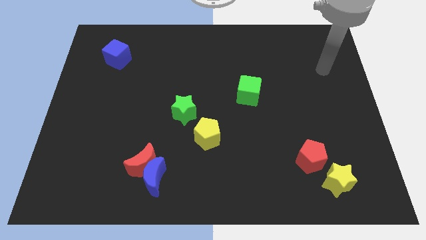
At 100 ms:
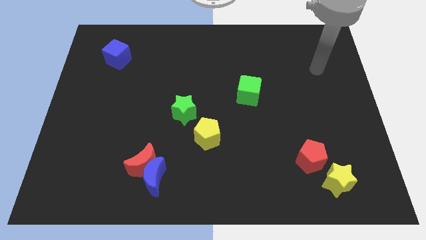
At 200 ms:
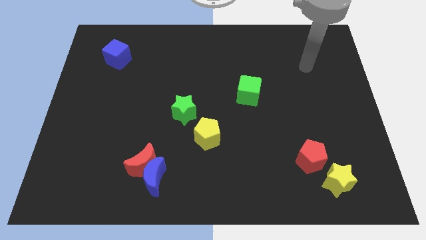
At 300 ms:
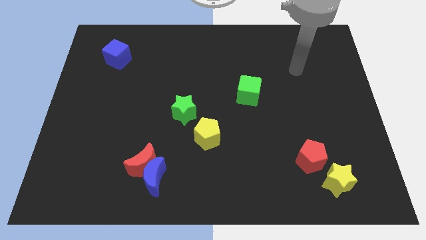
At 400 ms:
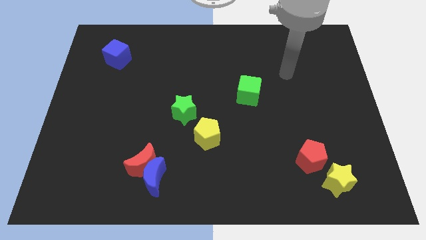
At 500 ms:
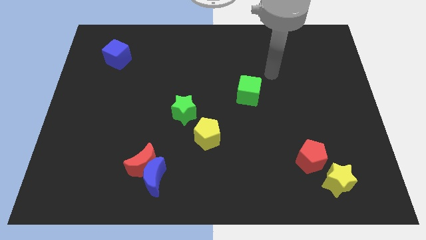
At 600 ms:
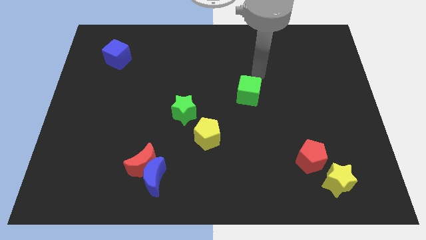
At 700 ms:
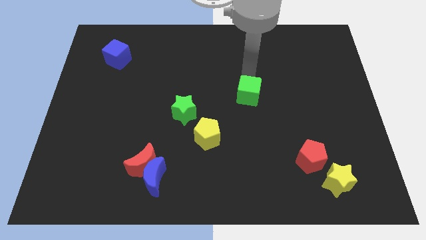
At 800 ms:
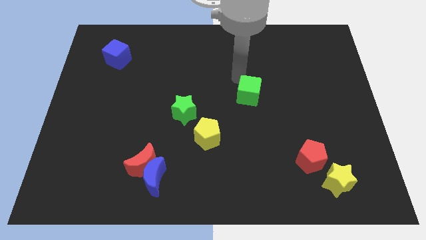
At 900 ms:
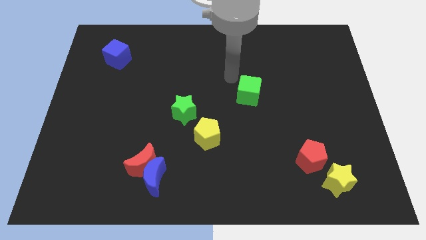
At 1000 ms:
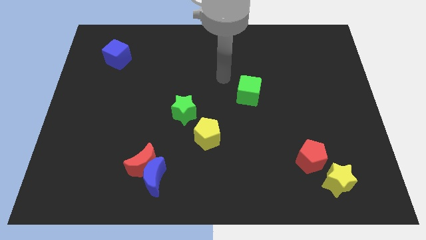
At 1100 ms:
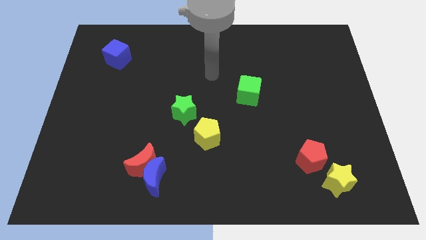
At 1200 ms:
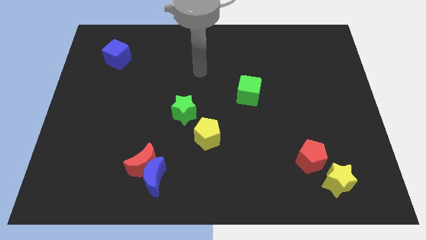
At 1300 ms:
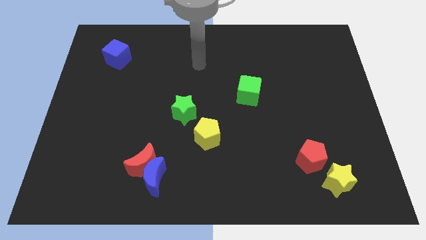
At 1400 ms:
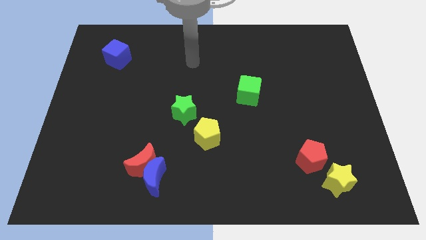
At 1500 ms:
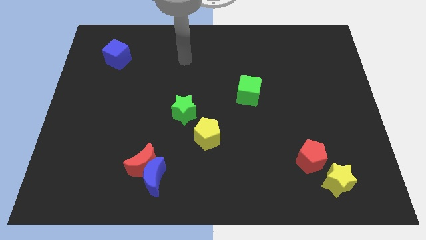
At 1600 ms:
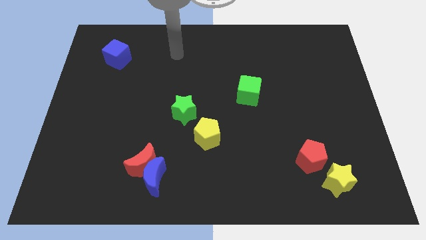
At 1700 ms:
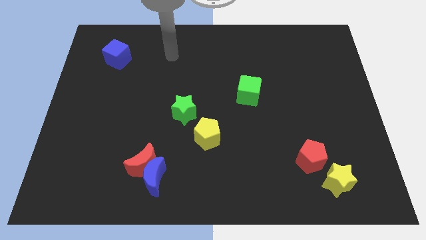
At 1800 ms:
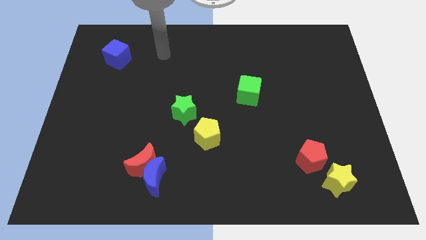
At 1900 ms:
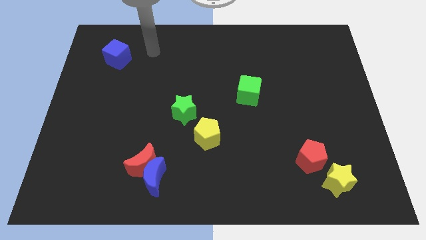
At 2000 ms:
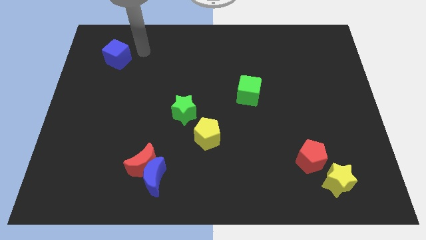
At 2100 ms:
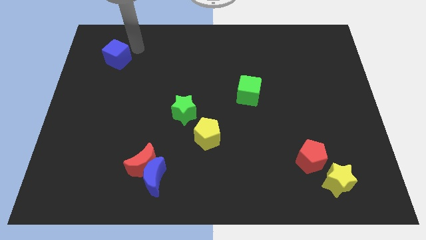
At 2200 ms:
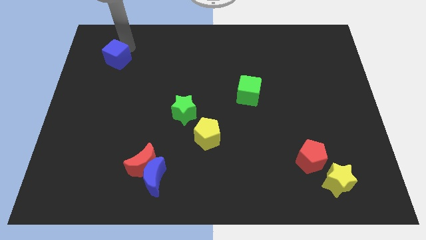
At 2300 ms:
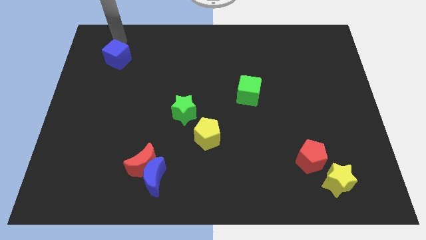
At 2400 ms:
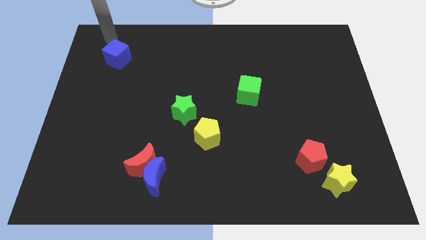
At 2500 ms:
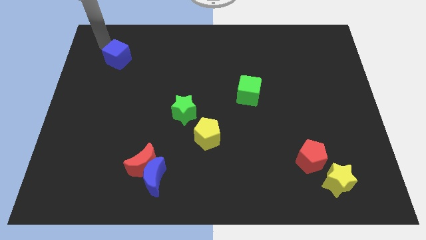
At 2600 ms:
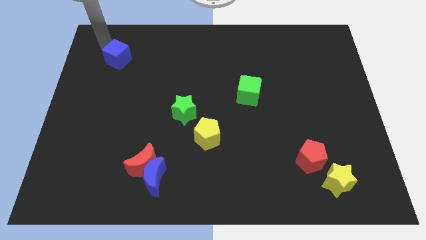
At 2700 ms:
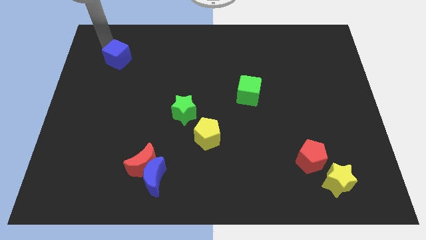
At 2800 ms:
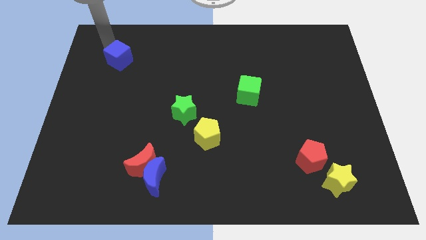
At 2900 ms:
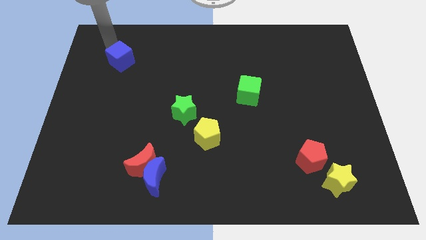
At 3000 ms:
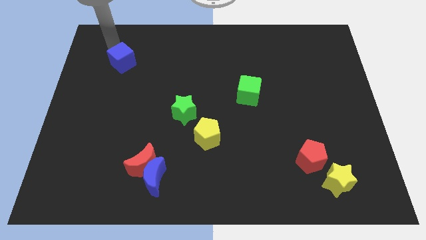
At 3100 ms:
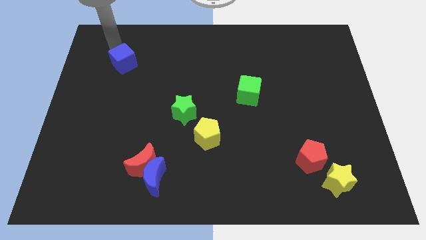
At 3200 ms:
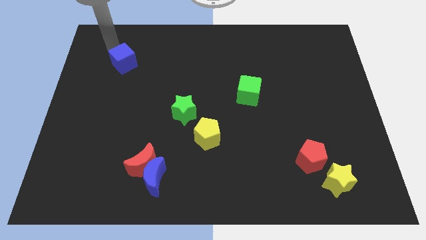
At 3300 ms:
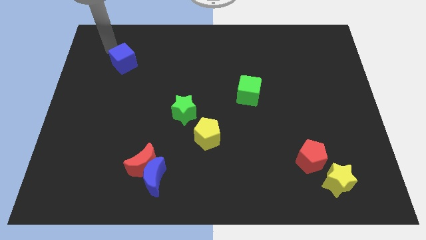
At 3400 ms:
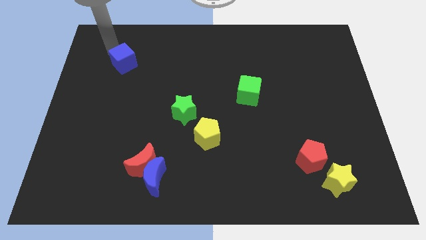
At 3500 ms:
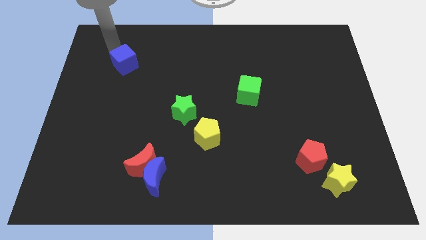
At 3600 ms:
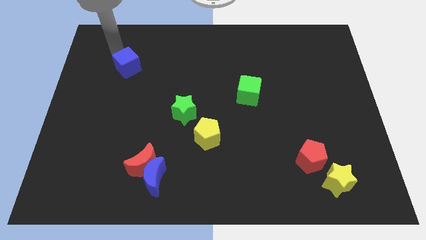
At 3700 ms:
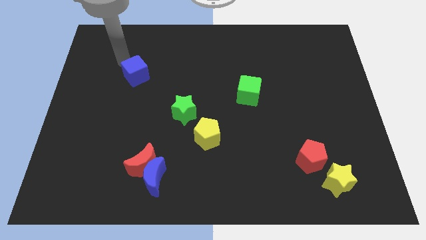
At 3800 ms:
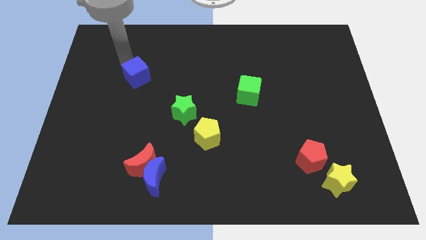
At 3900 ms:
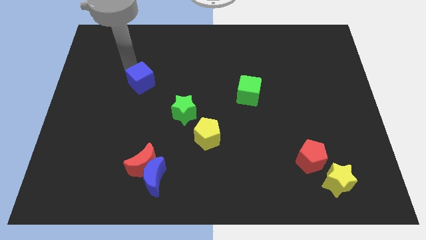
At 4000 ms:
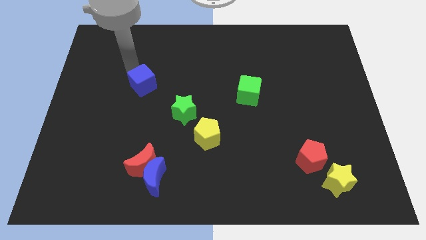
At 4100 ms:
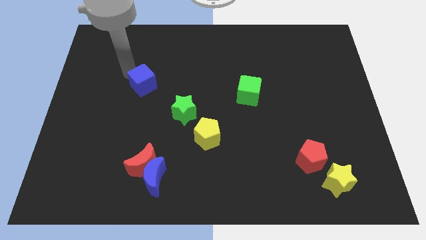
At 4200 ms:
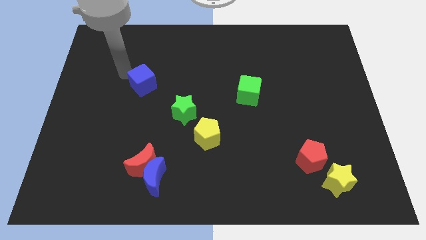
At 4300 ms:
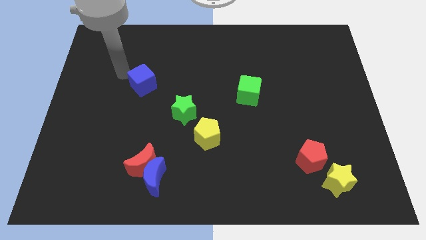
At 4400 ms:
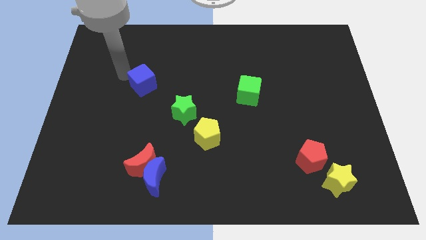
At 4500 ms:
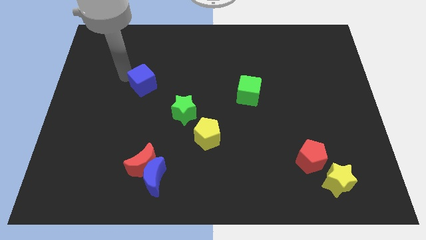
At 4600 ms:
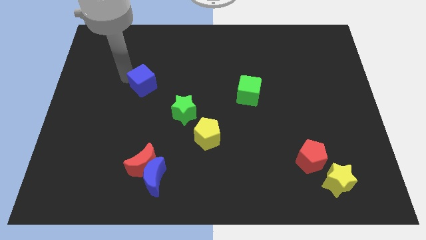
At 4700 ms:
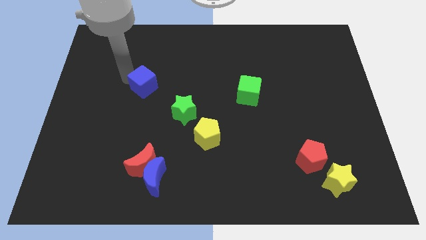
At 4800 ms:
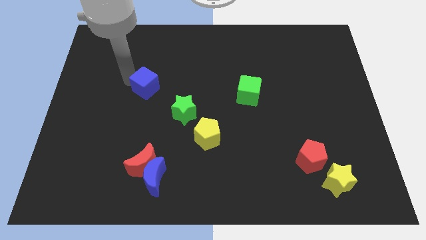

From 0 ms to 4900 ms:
slide the blue cube diagonally up and to the left of the green star

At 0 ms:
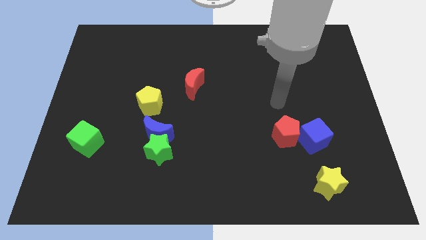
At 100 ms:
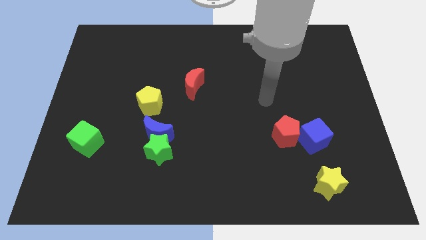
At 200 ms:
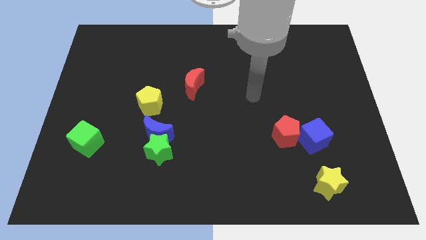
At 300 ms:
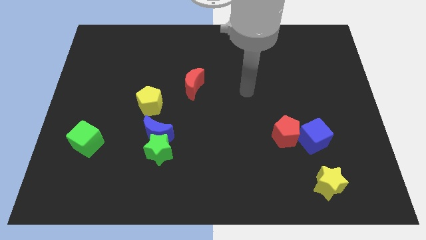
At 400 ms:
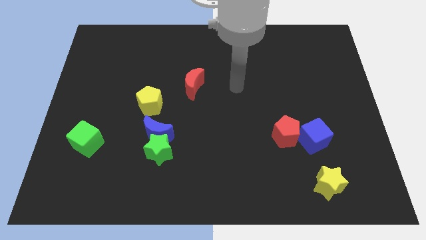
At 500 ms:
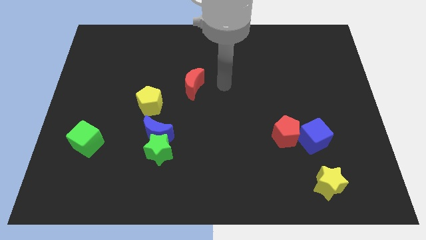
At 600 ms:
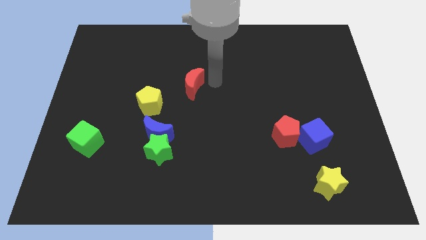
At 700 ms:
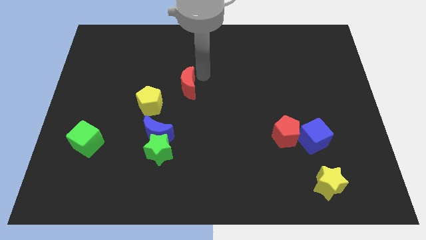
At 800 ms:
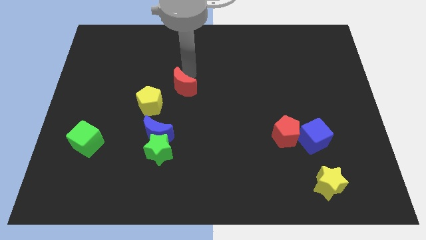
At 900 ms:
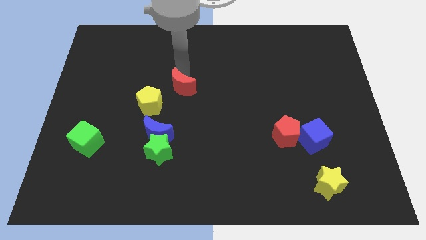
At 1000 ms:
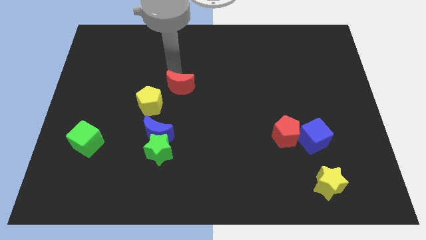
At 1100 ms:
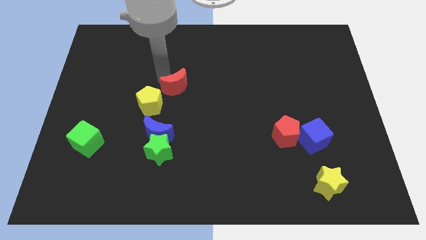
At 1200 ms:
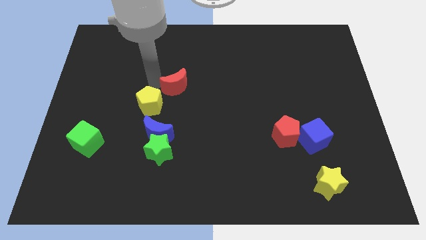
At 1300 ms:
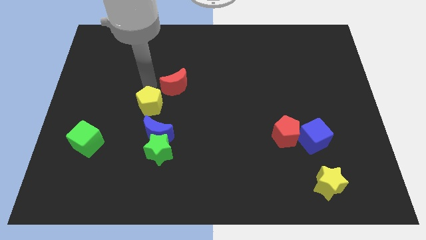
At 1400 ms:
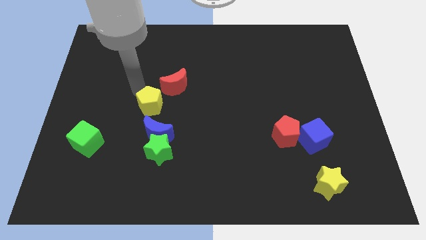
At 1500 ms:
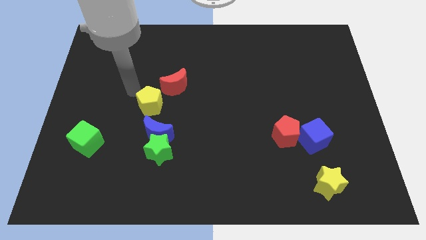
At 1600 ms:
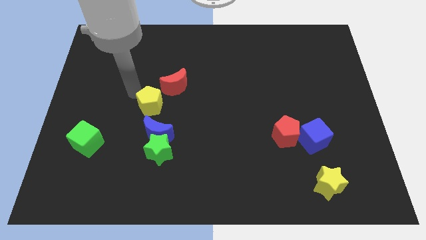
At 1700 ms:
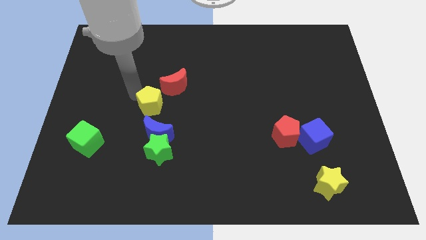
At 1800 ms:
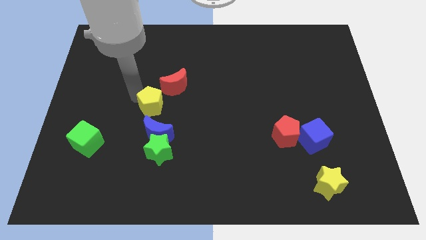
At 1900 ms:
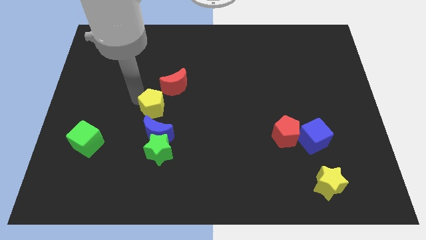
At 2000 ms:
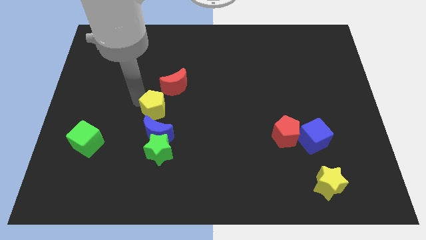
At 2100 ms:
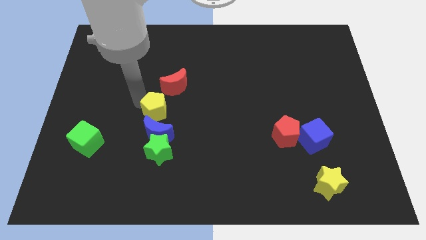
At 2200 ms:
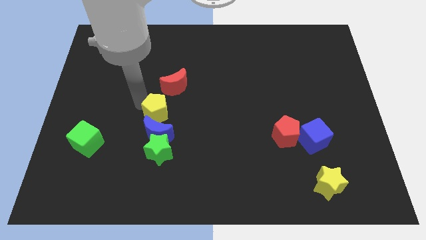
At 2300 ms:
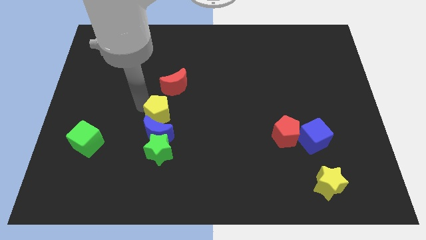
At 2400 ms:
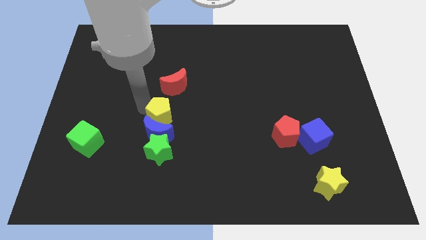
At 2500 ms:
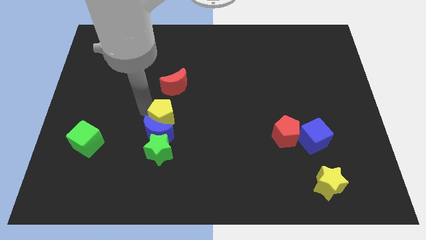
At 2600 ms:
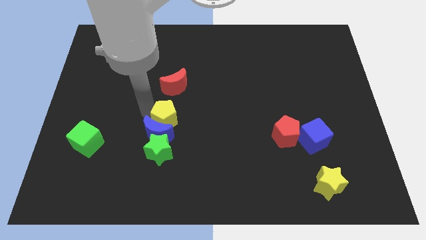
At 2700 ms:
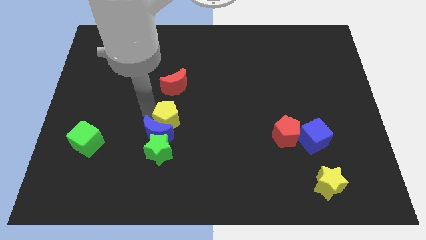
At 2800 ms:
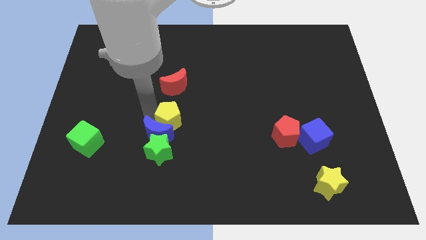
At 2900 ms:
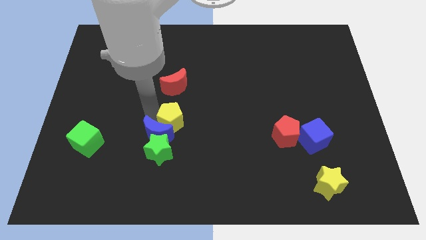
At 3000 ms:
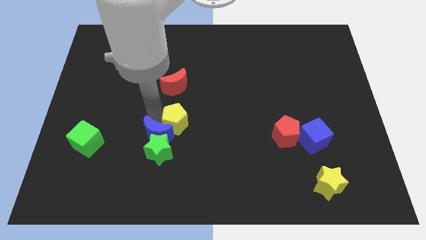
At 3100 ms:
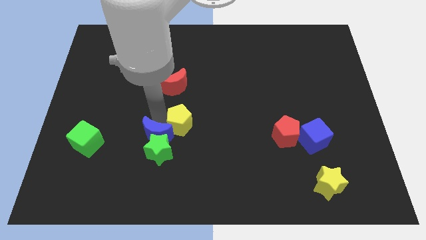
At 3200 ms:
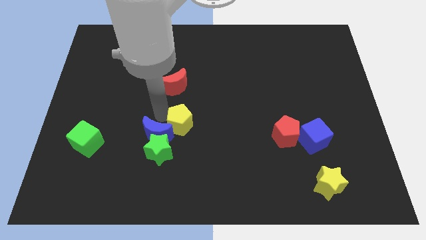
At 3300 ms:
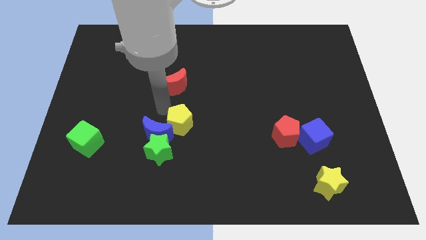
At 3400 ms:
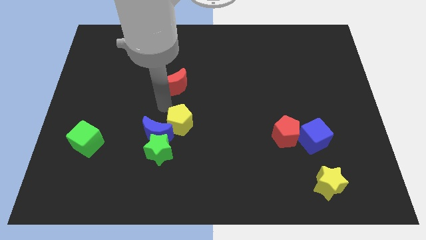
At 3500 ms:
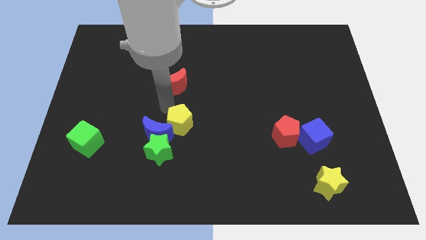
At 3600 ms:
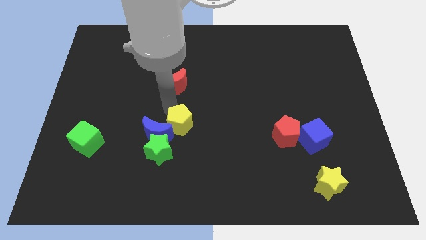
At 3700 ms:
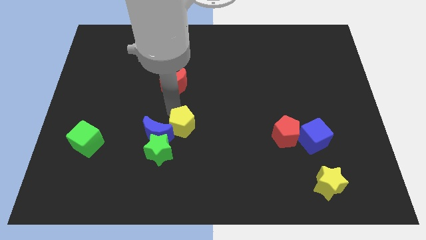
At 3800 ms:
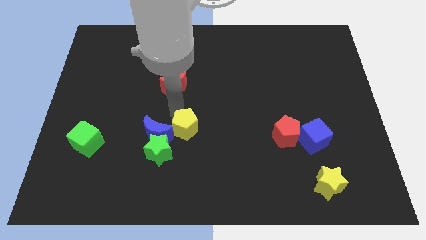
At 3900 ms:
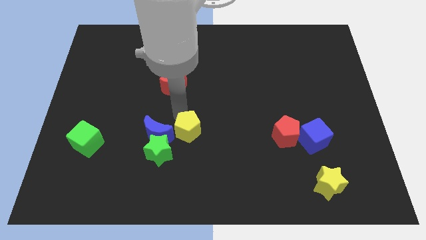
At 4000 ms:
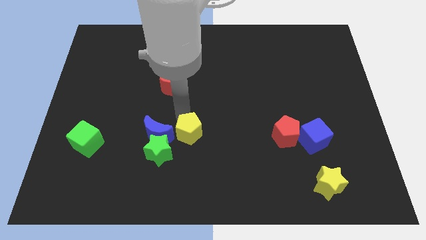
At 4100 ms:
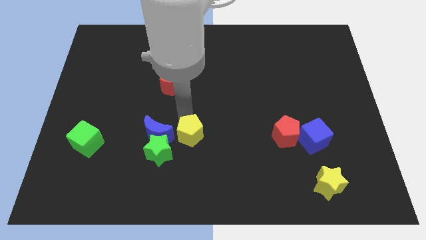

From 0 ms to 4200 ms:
push the yellow pentagon to the right side of the green star
